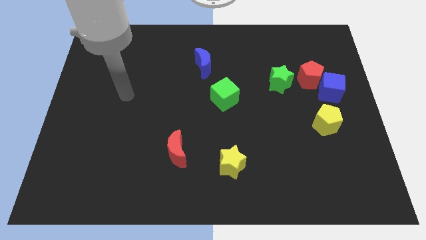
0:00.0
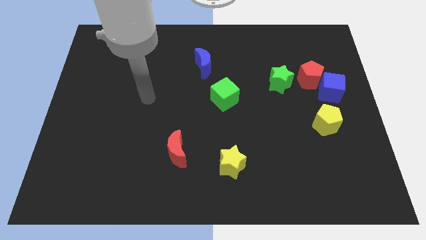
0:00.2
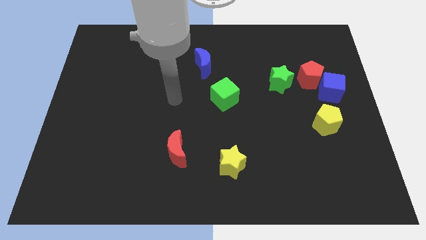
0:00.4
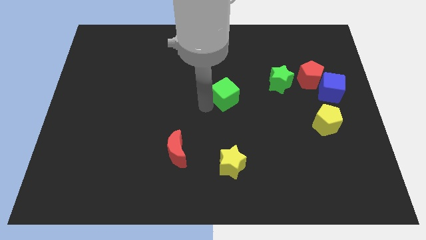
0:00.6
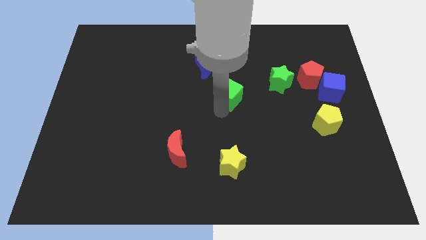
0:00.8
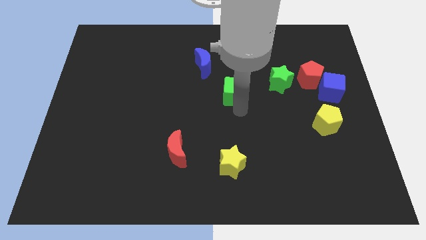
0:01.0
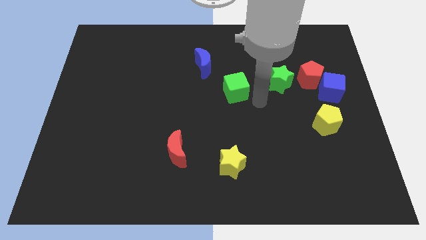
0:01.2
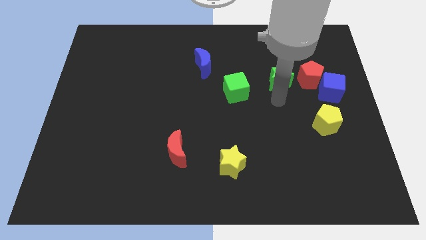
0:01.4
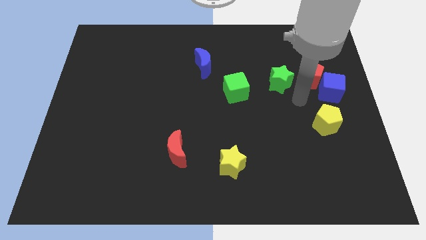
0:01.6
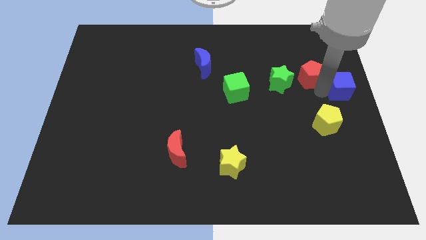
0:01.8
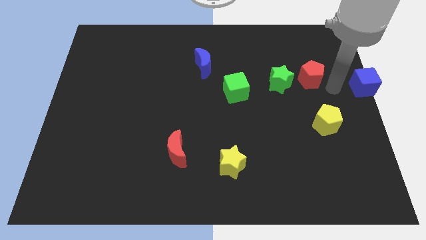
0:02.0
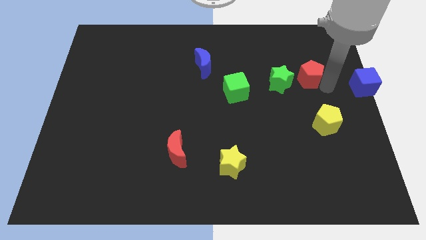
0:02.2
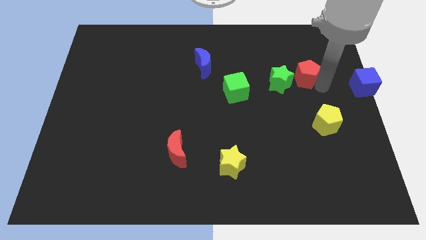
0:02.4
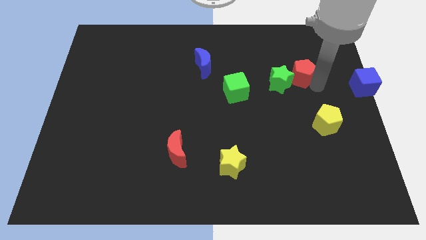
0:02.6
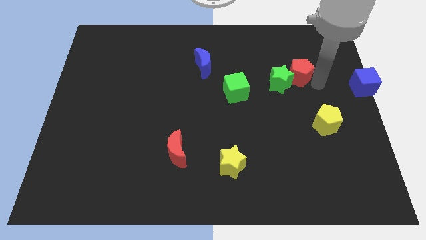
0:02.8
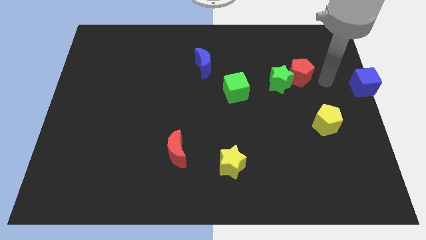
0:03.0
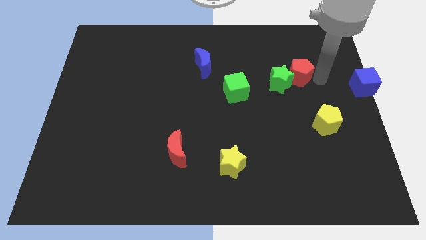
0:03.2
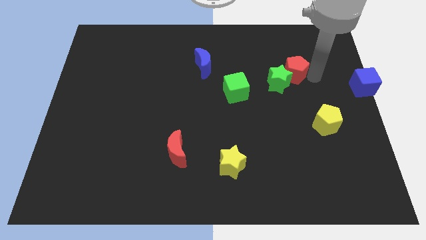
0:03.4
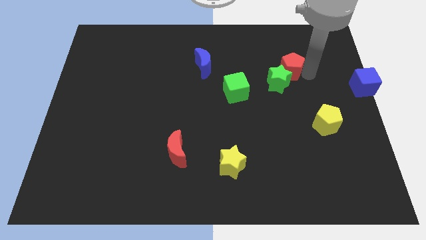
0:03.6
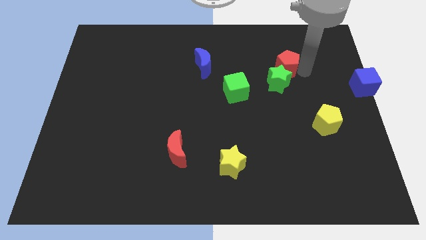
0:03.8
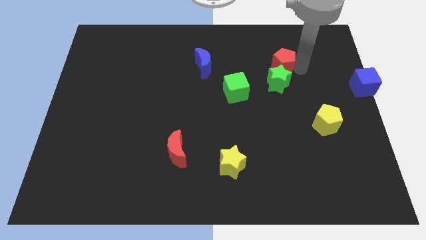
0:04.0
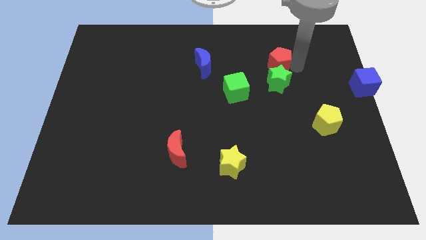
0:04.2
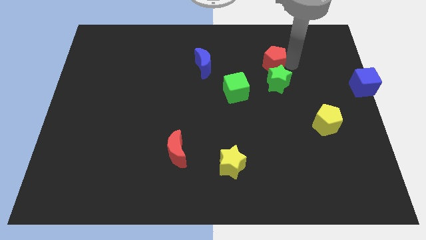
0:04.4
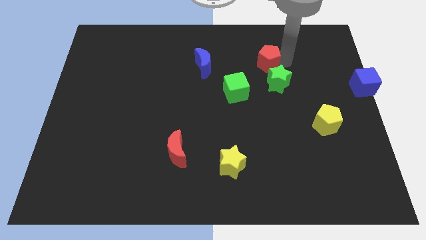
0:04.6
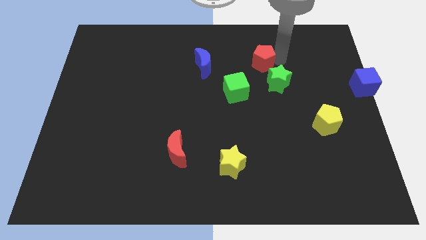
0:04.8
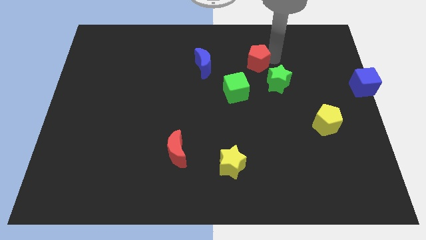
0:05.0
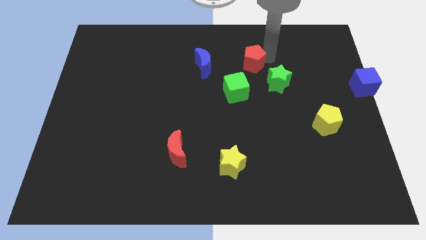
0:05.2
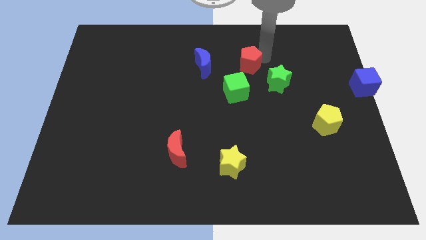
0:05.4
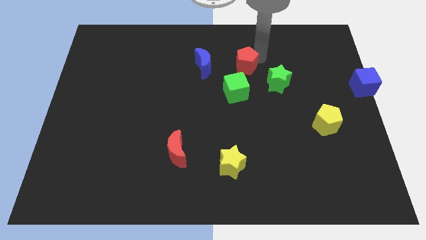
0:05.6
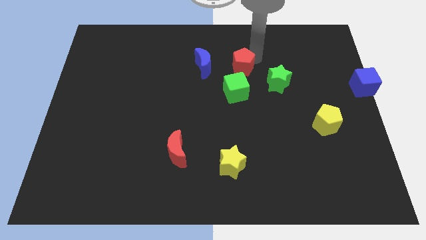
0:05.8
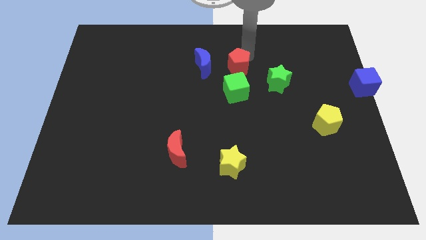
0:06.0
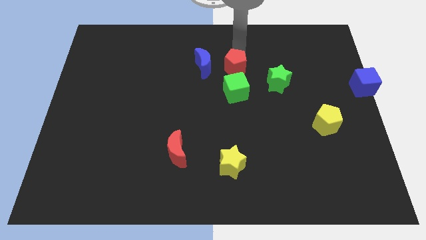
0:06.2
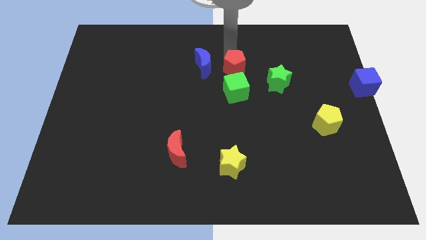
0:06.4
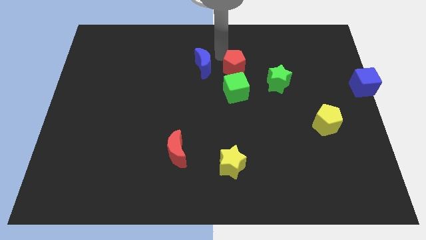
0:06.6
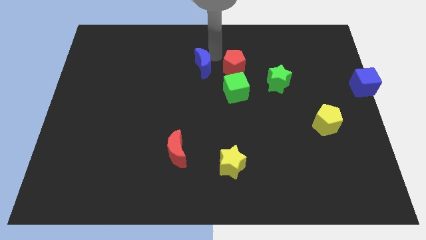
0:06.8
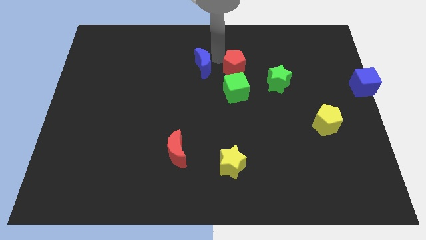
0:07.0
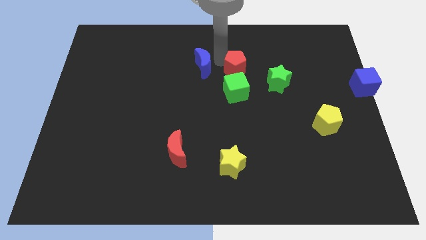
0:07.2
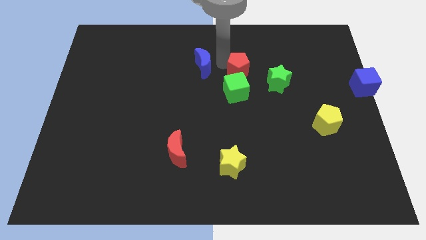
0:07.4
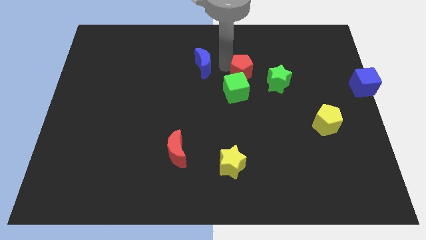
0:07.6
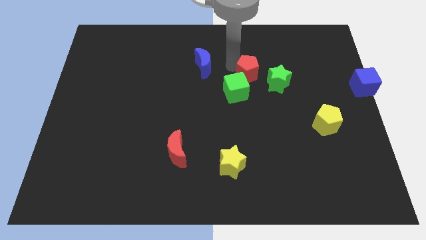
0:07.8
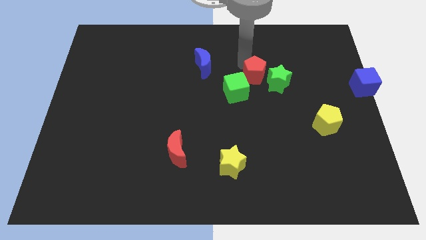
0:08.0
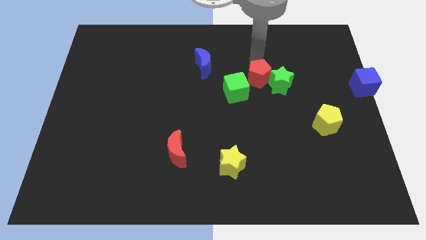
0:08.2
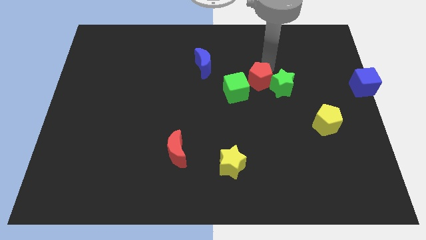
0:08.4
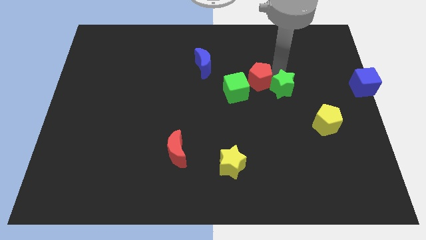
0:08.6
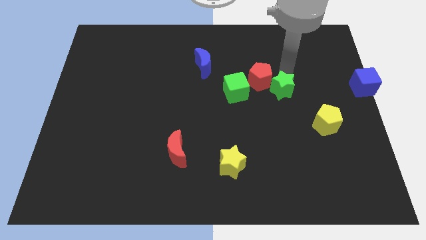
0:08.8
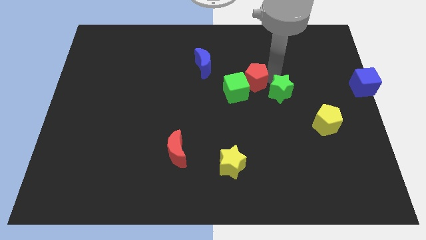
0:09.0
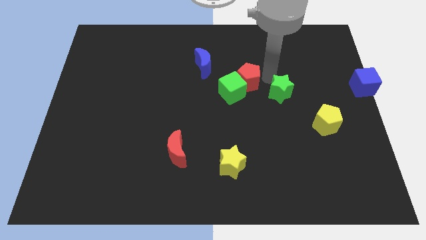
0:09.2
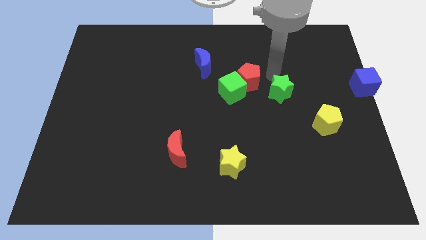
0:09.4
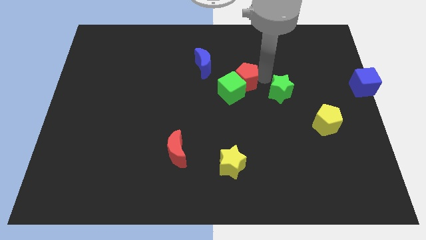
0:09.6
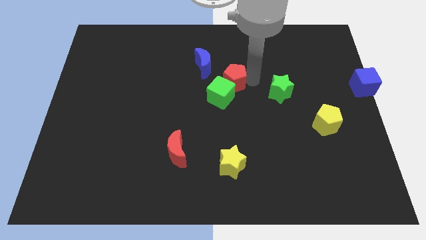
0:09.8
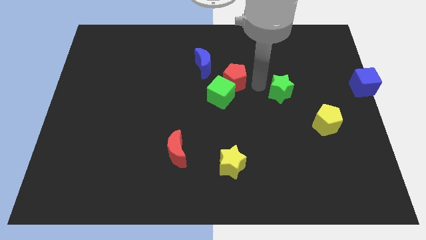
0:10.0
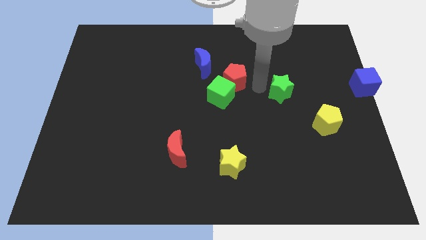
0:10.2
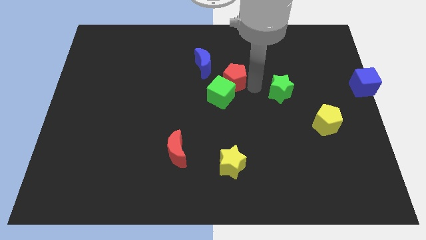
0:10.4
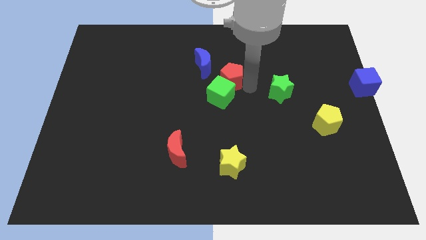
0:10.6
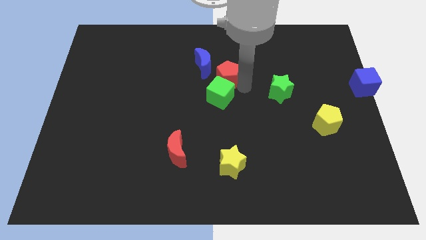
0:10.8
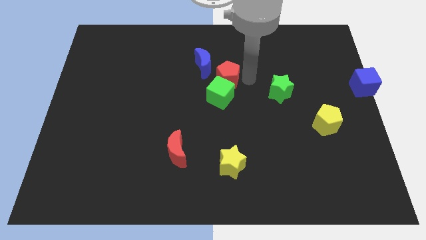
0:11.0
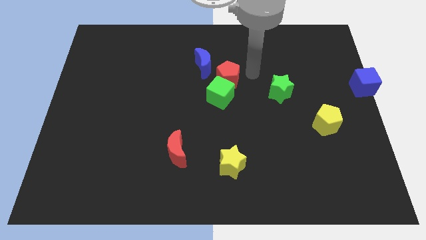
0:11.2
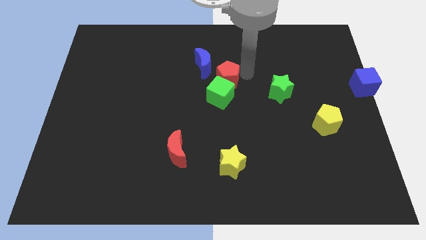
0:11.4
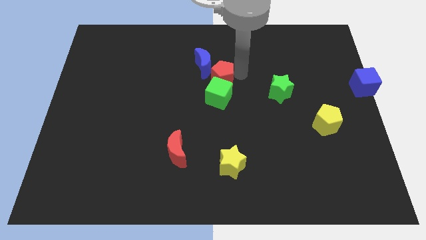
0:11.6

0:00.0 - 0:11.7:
push the red pentagon to the bottom of the blue moon

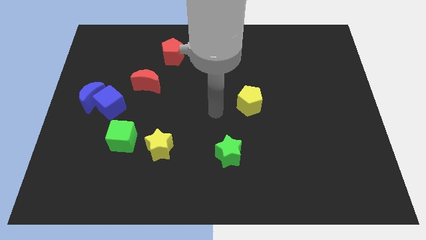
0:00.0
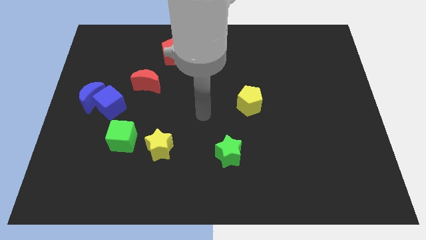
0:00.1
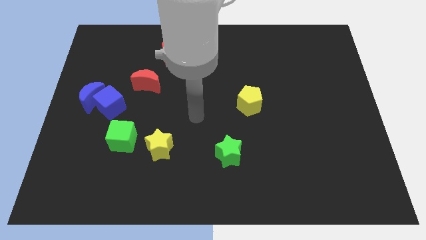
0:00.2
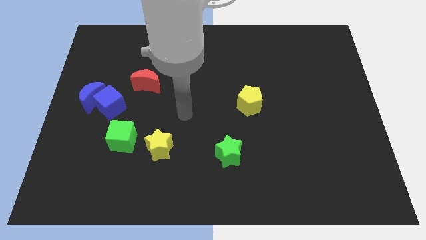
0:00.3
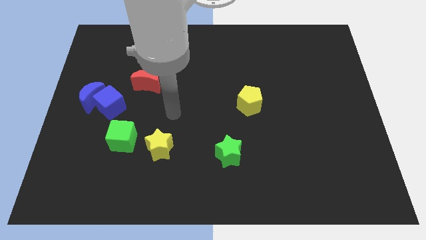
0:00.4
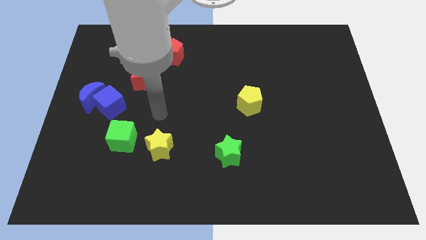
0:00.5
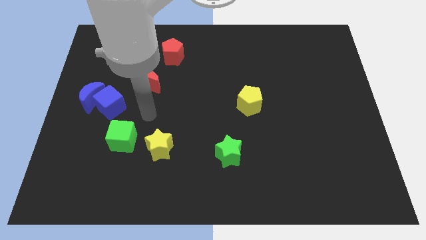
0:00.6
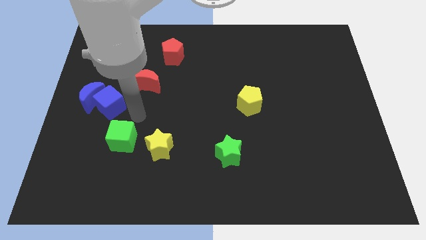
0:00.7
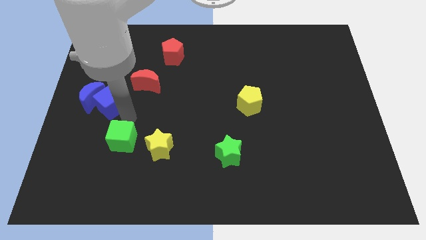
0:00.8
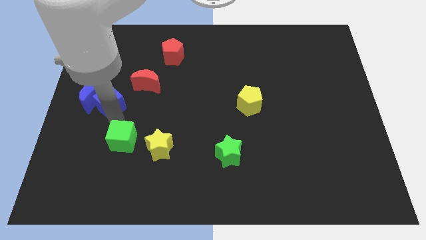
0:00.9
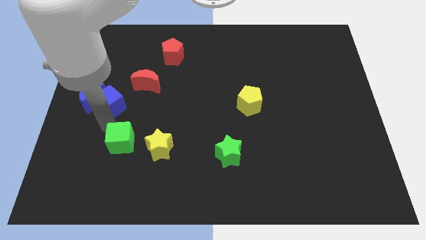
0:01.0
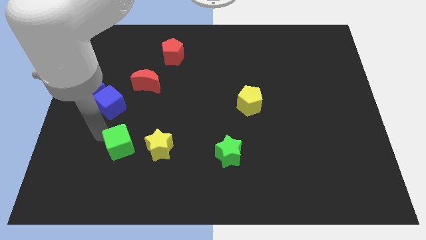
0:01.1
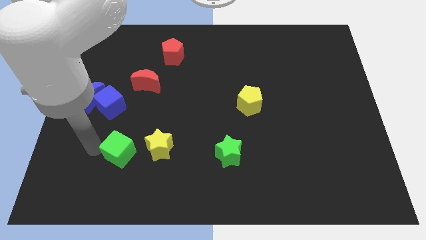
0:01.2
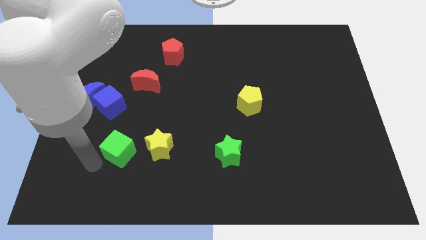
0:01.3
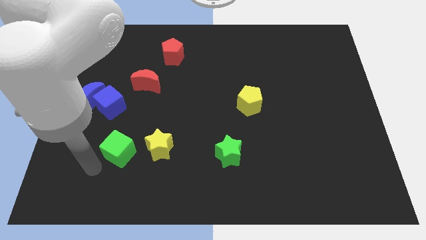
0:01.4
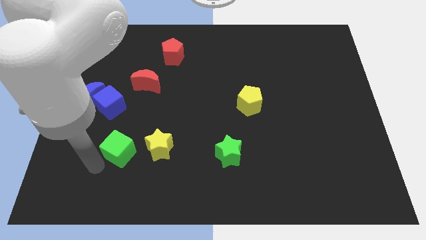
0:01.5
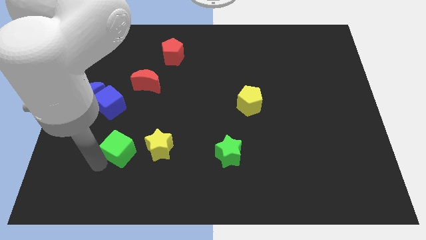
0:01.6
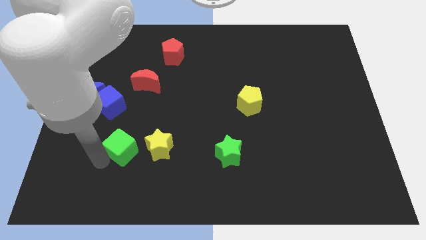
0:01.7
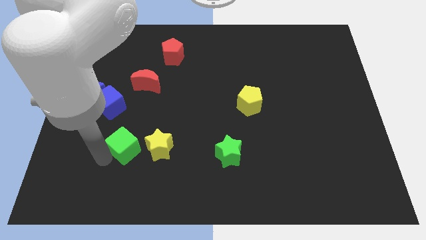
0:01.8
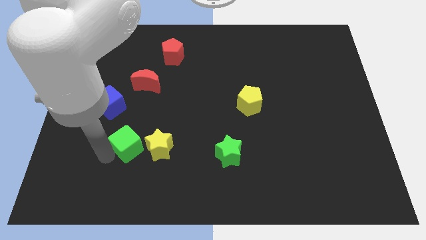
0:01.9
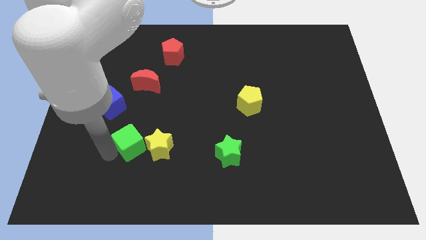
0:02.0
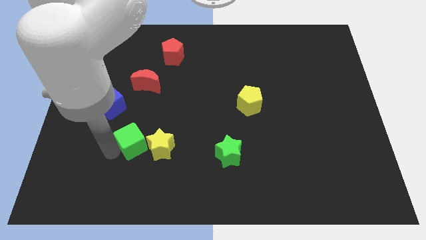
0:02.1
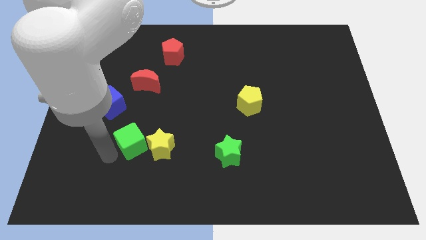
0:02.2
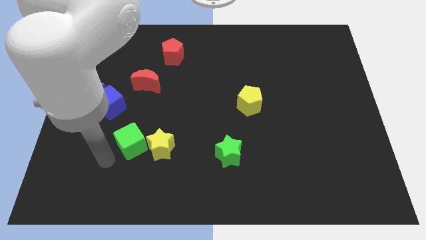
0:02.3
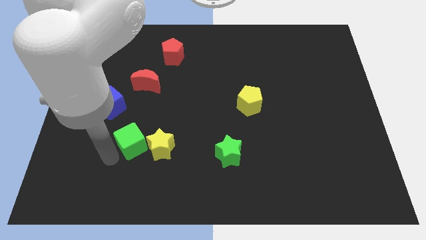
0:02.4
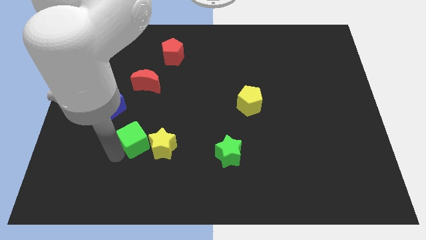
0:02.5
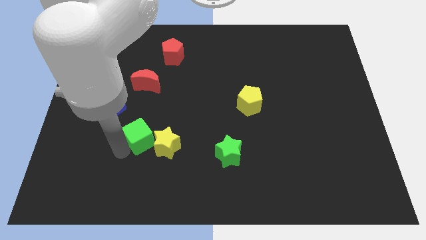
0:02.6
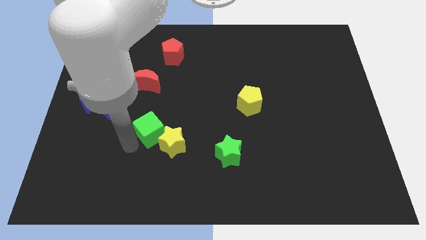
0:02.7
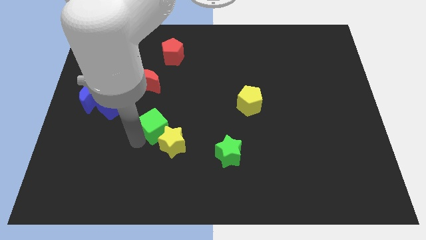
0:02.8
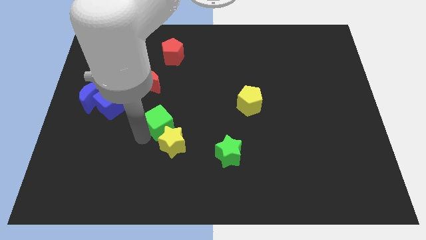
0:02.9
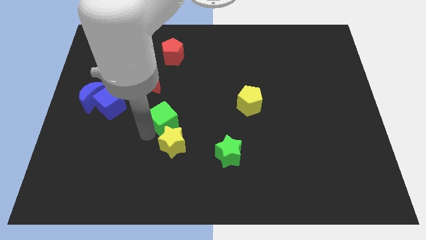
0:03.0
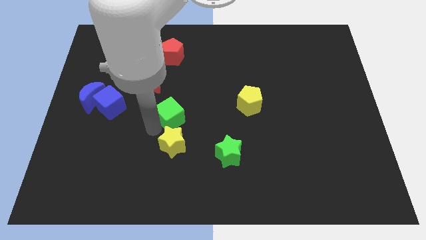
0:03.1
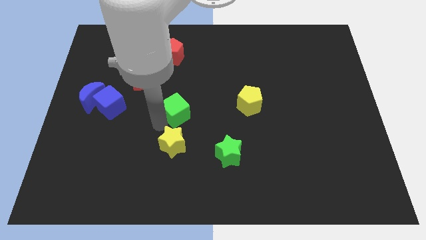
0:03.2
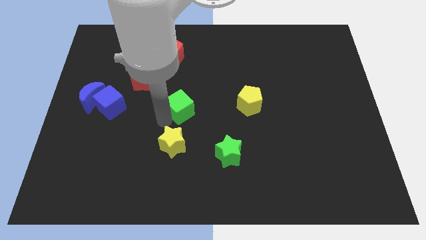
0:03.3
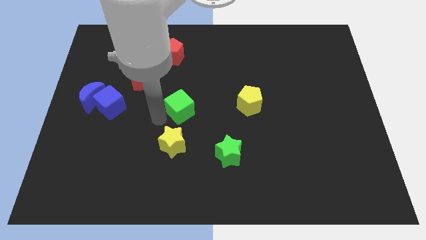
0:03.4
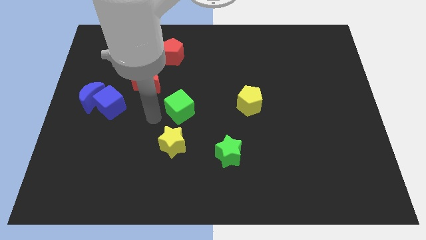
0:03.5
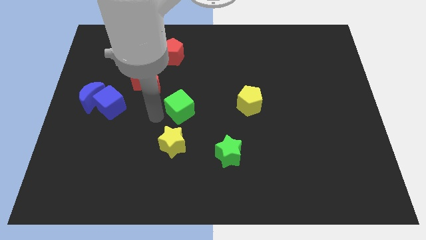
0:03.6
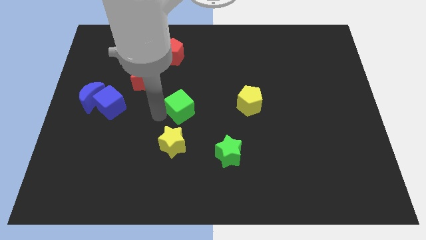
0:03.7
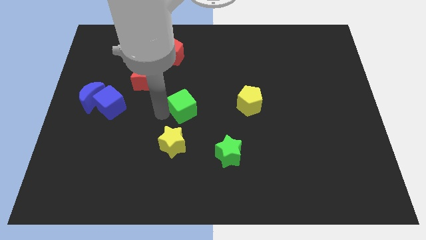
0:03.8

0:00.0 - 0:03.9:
slide the green cube to the left of the yellow pentagon
